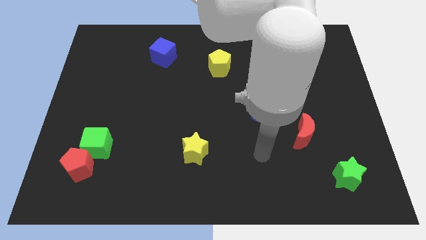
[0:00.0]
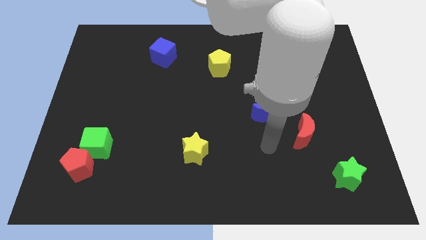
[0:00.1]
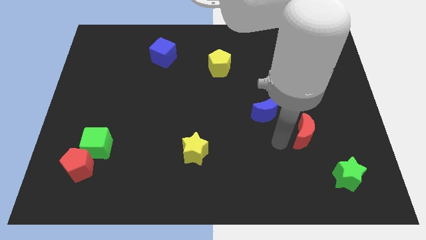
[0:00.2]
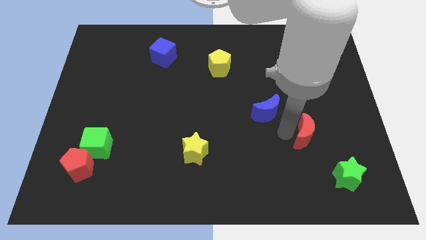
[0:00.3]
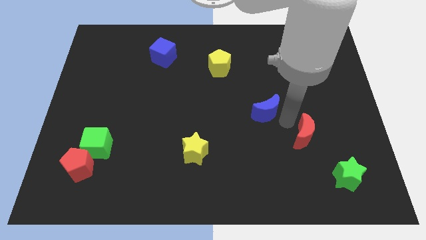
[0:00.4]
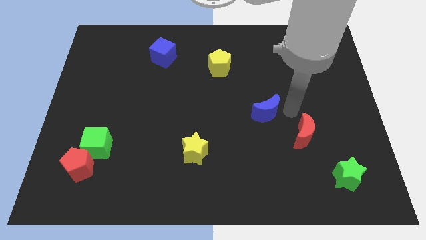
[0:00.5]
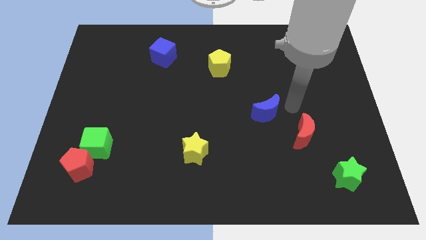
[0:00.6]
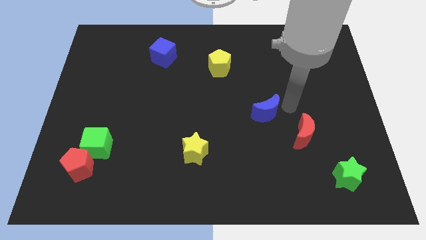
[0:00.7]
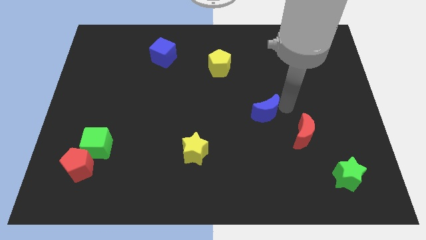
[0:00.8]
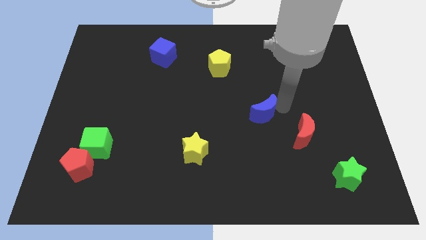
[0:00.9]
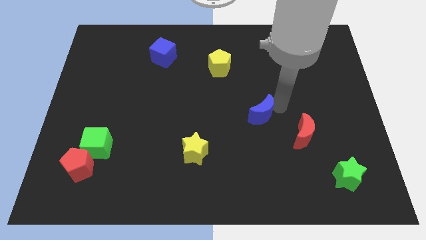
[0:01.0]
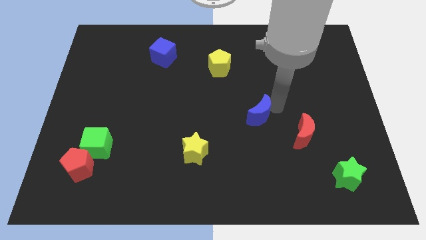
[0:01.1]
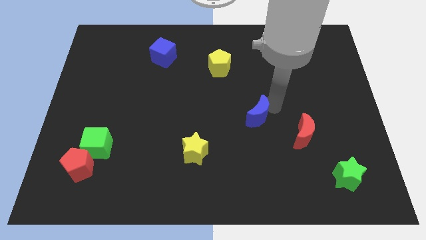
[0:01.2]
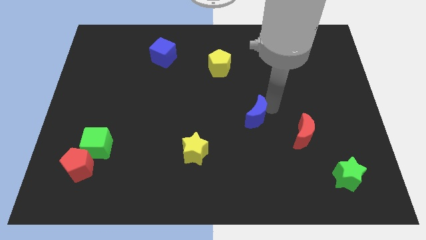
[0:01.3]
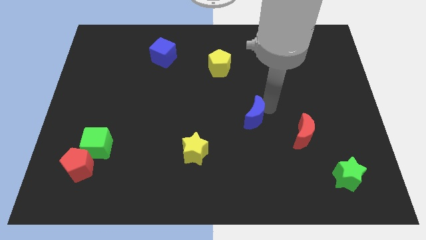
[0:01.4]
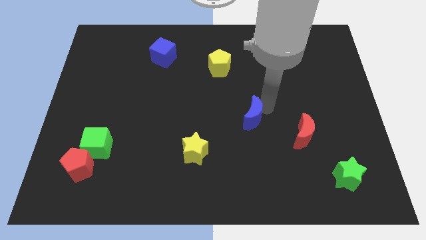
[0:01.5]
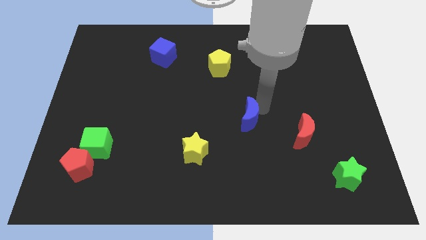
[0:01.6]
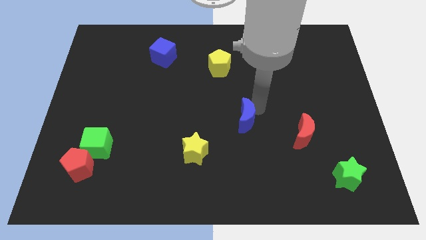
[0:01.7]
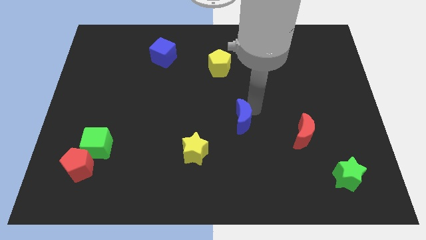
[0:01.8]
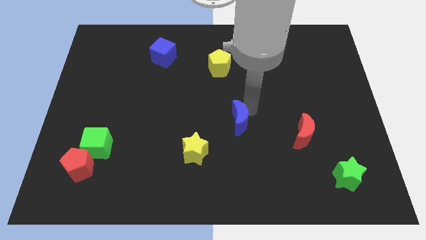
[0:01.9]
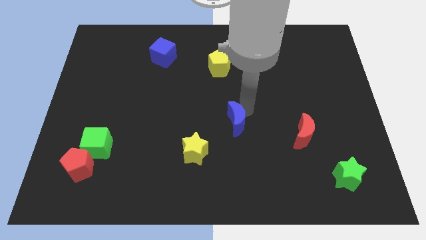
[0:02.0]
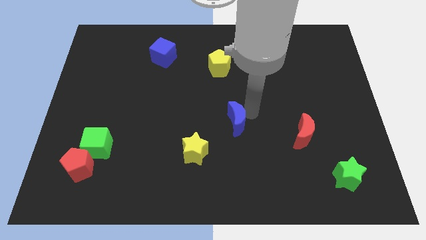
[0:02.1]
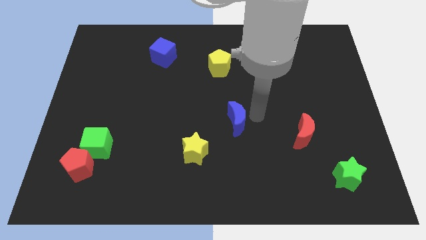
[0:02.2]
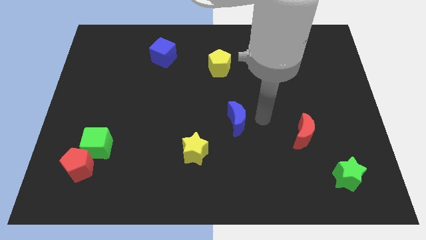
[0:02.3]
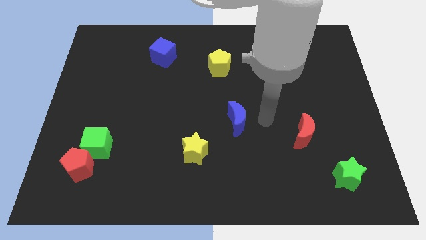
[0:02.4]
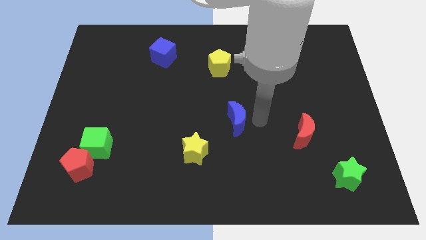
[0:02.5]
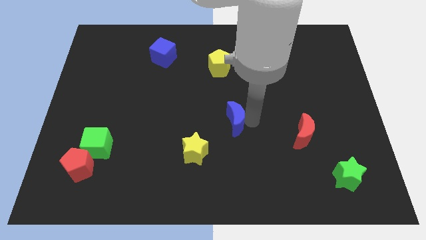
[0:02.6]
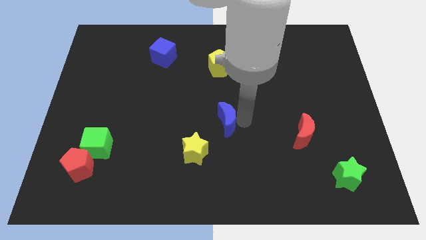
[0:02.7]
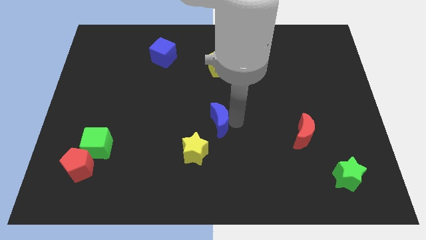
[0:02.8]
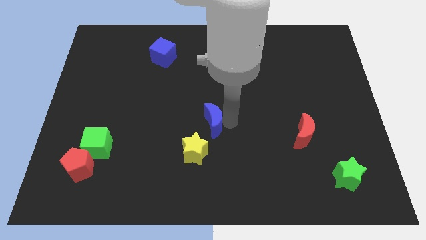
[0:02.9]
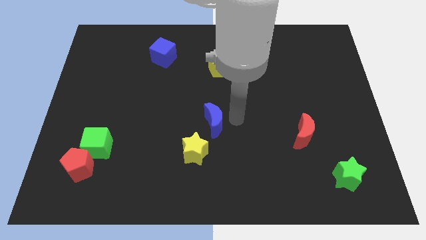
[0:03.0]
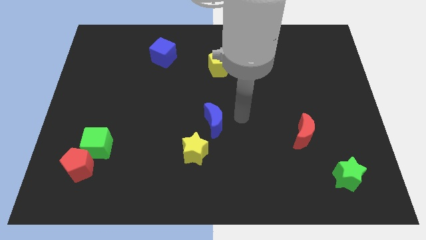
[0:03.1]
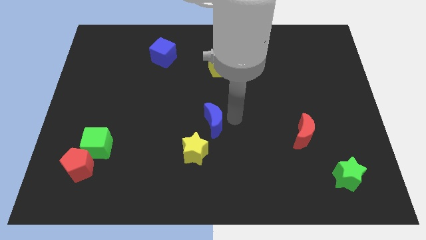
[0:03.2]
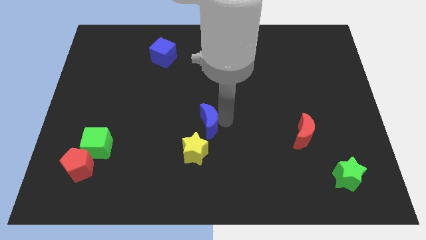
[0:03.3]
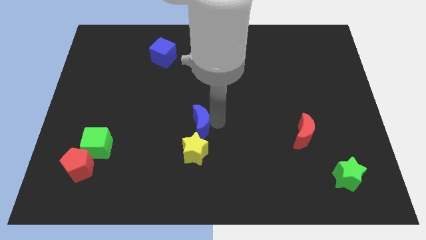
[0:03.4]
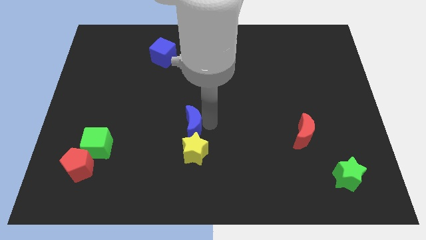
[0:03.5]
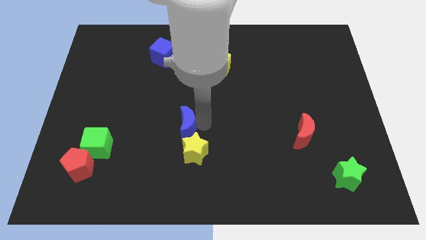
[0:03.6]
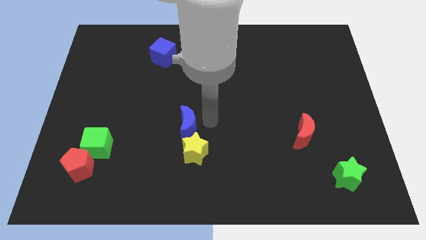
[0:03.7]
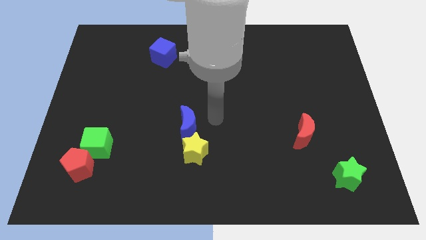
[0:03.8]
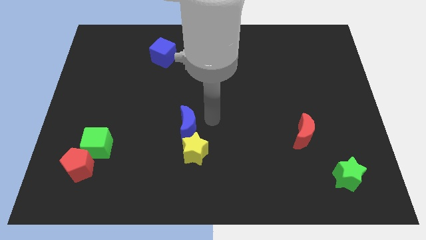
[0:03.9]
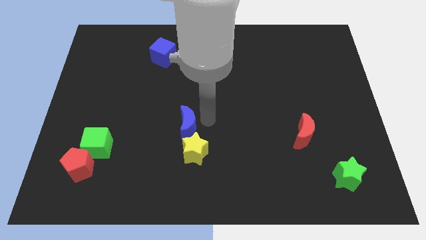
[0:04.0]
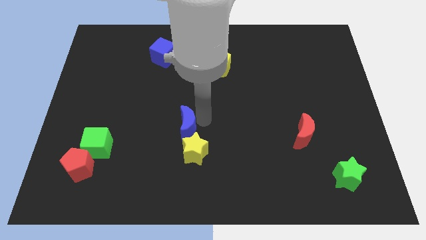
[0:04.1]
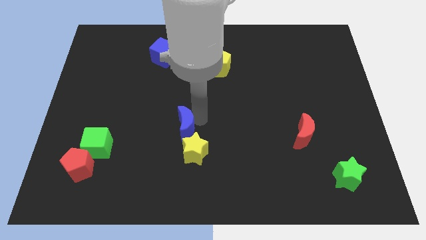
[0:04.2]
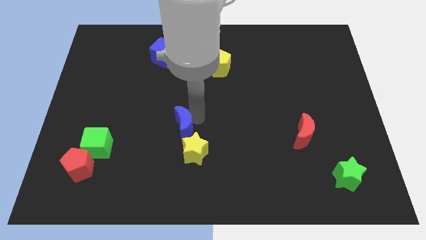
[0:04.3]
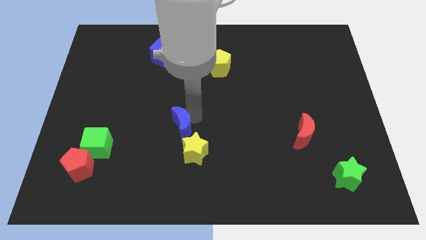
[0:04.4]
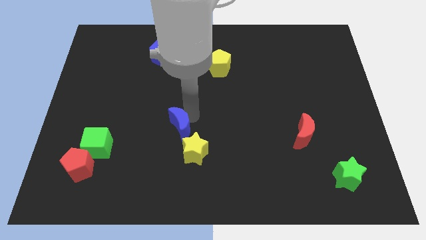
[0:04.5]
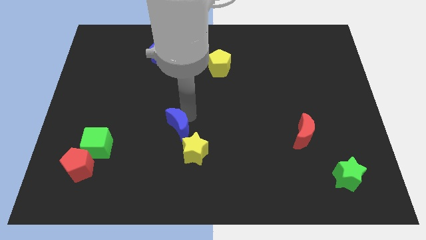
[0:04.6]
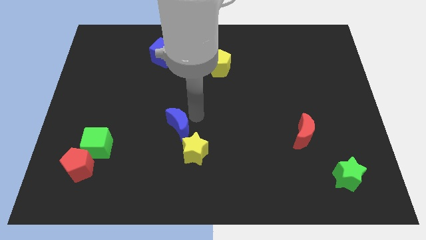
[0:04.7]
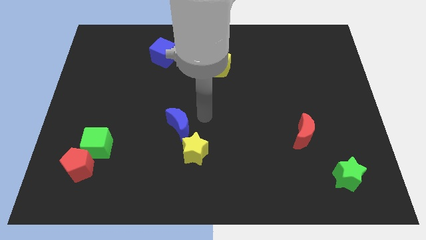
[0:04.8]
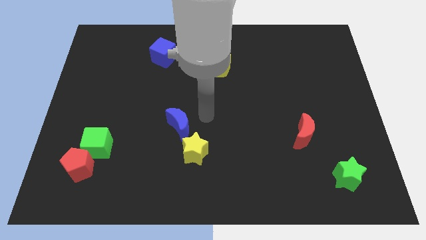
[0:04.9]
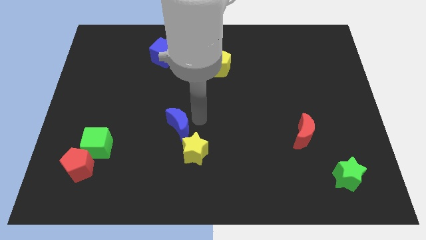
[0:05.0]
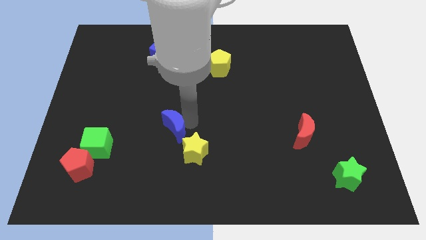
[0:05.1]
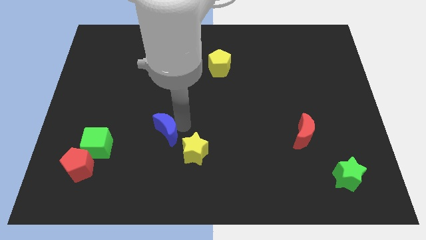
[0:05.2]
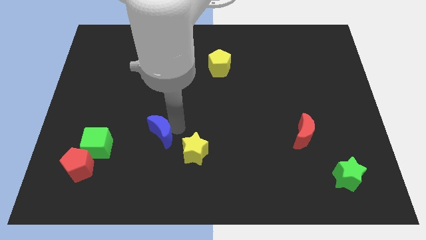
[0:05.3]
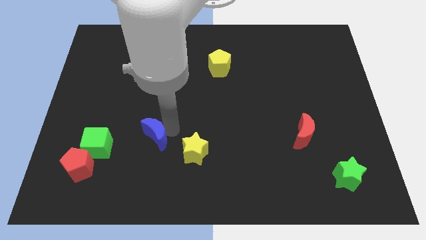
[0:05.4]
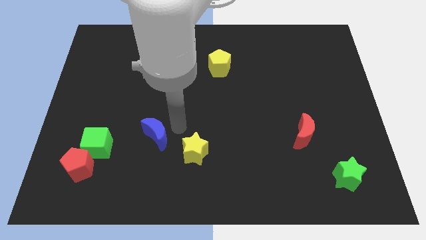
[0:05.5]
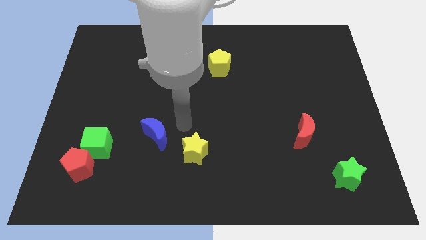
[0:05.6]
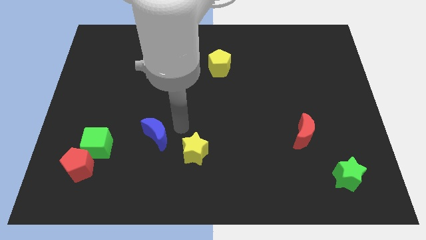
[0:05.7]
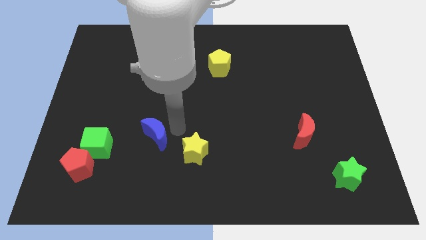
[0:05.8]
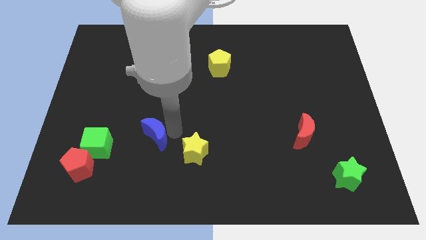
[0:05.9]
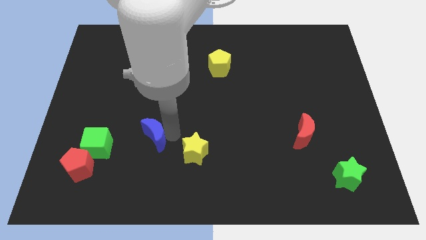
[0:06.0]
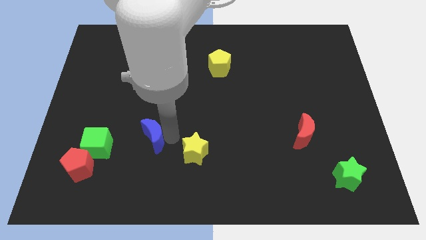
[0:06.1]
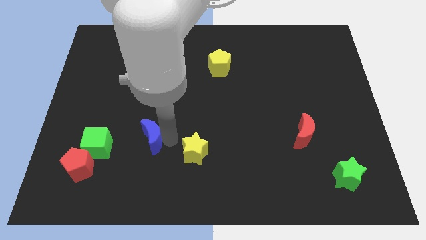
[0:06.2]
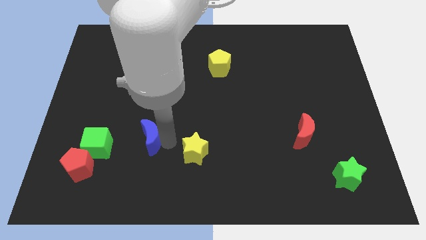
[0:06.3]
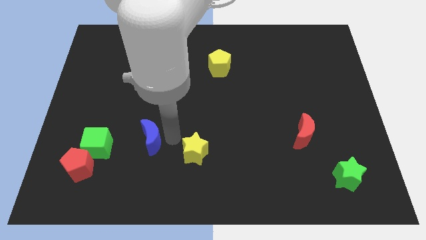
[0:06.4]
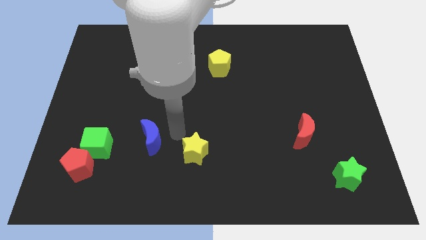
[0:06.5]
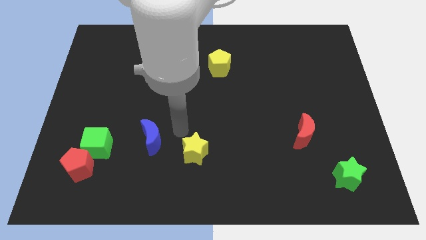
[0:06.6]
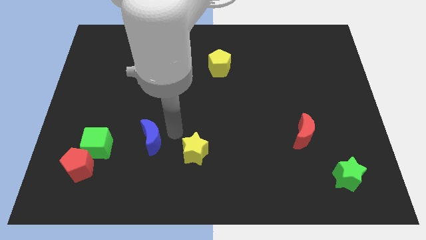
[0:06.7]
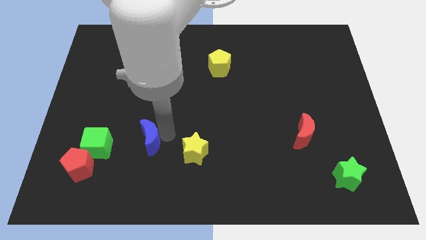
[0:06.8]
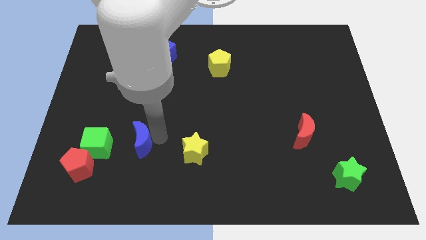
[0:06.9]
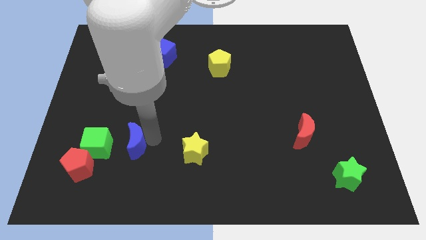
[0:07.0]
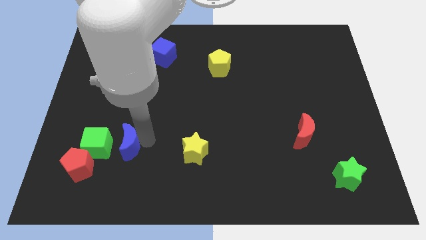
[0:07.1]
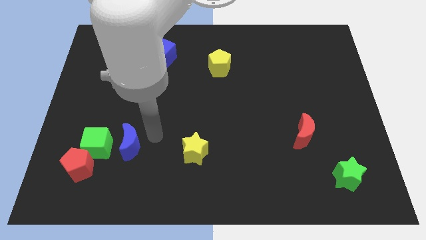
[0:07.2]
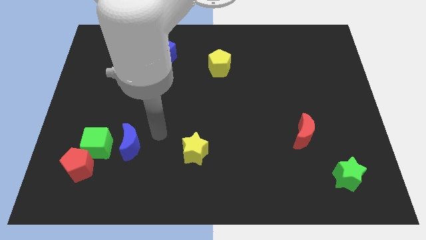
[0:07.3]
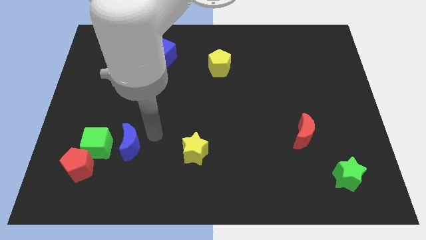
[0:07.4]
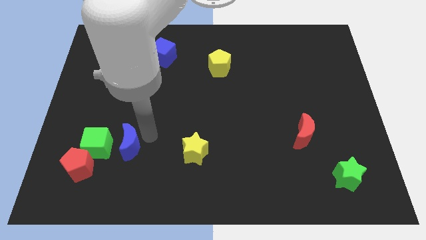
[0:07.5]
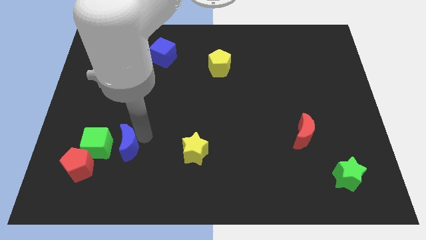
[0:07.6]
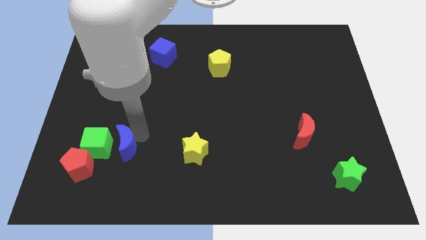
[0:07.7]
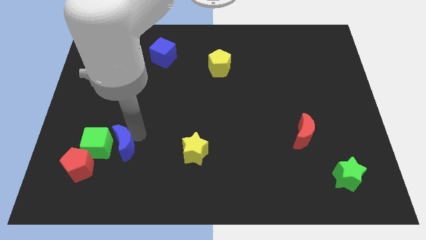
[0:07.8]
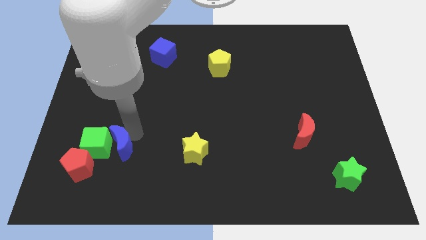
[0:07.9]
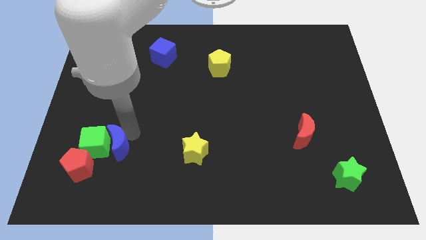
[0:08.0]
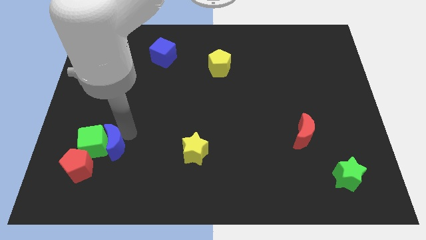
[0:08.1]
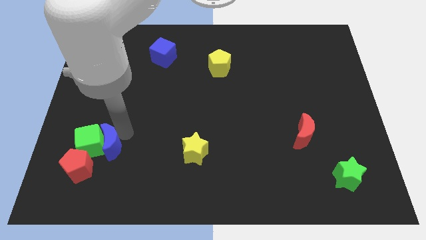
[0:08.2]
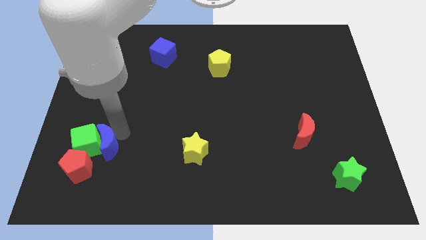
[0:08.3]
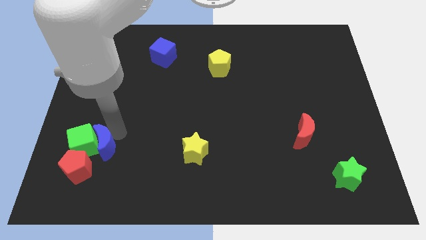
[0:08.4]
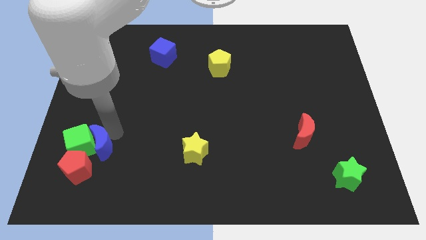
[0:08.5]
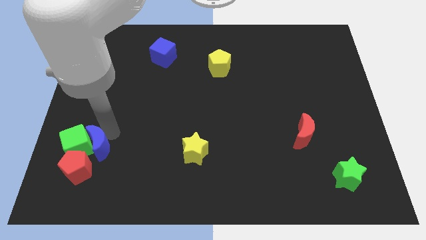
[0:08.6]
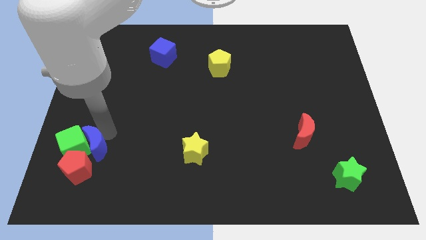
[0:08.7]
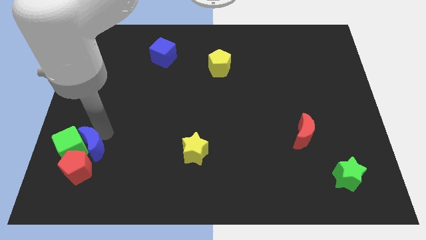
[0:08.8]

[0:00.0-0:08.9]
slide the blue moon towards the red pentagon
